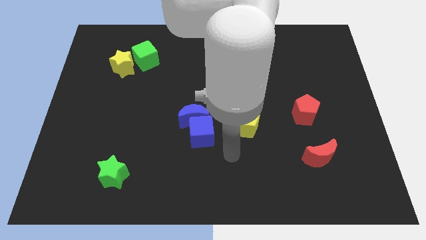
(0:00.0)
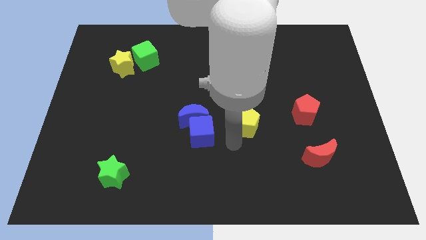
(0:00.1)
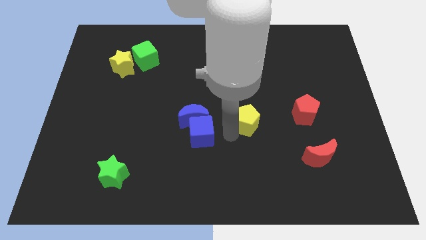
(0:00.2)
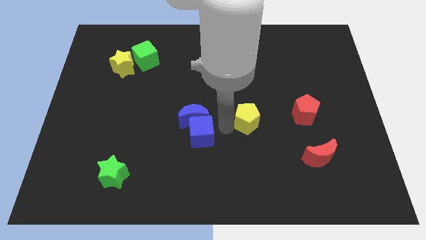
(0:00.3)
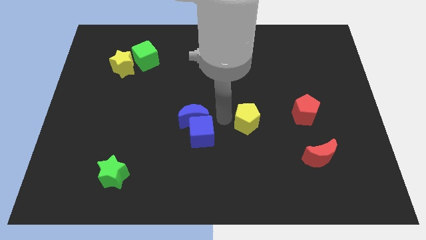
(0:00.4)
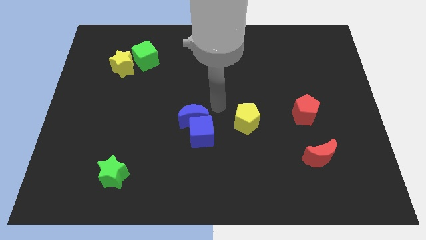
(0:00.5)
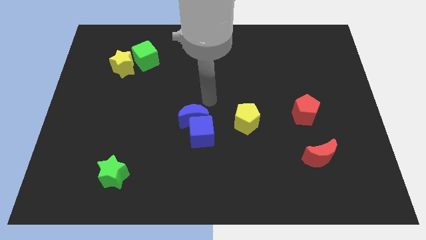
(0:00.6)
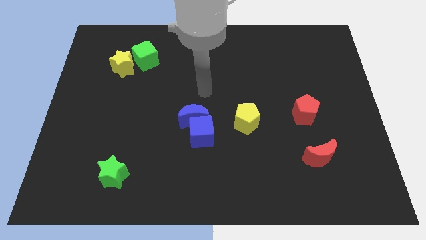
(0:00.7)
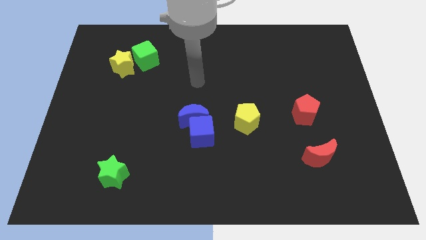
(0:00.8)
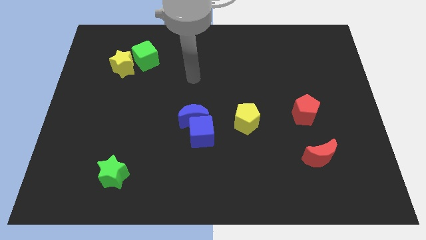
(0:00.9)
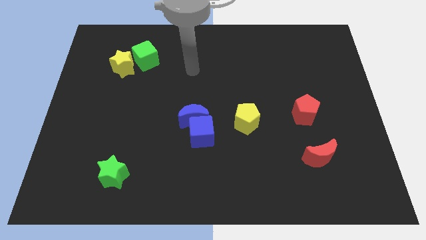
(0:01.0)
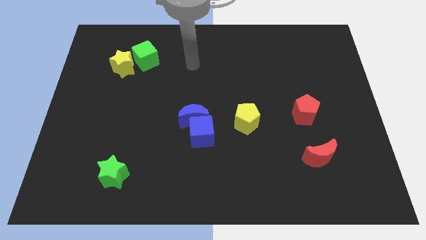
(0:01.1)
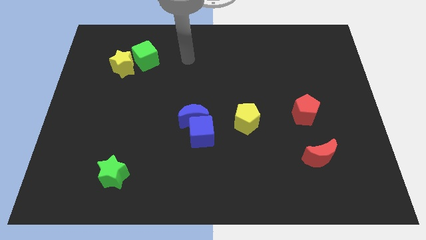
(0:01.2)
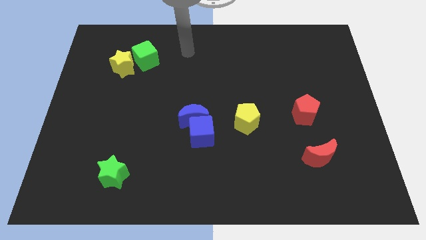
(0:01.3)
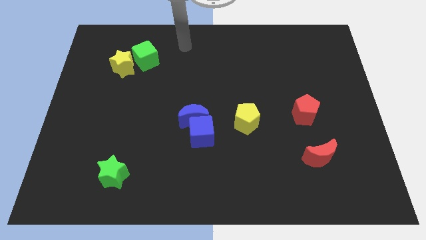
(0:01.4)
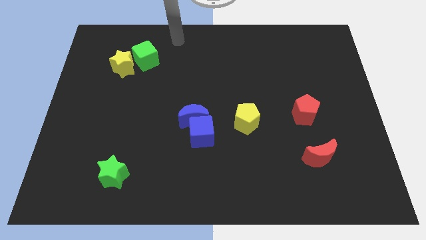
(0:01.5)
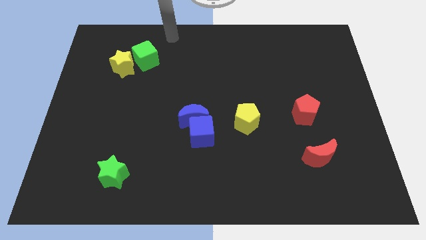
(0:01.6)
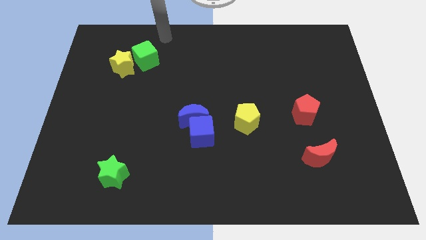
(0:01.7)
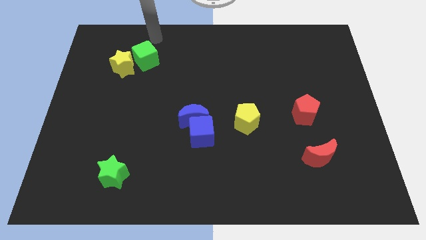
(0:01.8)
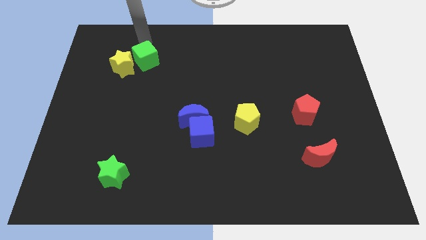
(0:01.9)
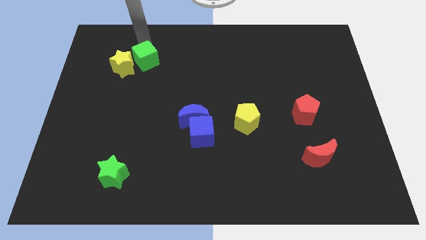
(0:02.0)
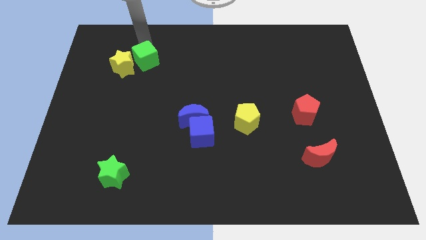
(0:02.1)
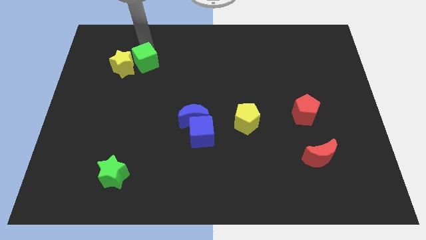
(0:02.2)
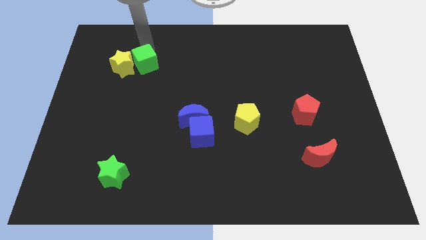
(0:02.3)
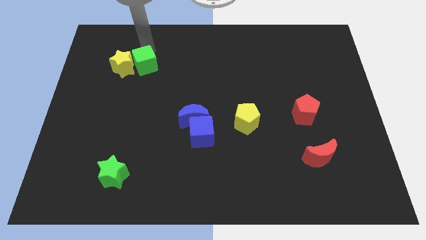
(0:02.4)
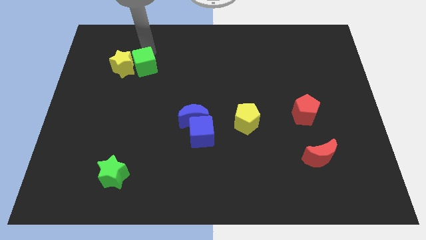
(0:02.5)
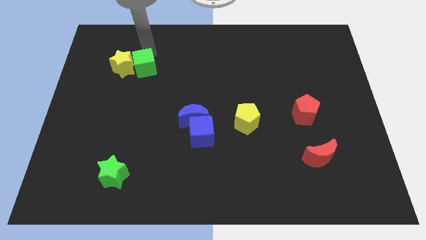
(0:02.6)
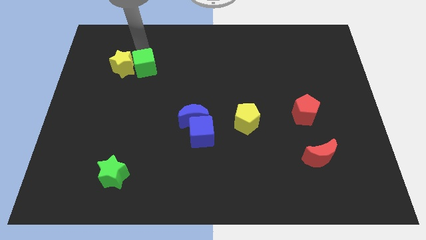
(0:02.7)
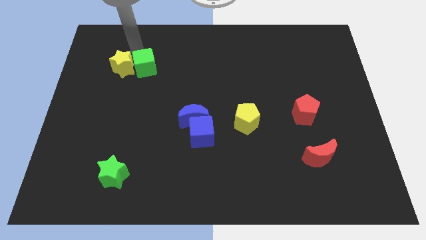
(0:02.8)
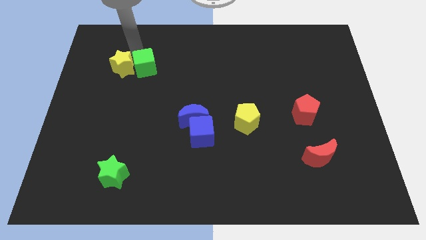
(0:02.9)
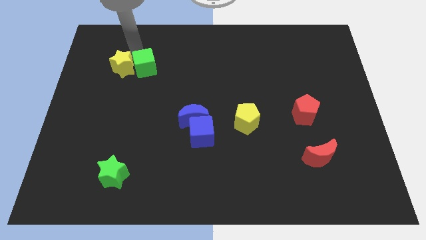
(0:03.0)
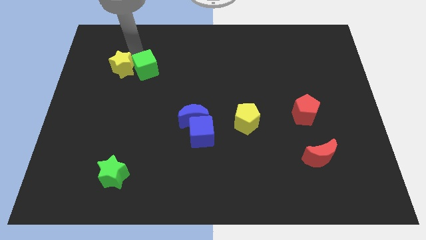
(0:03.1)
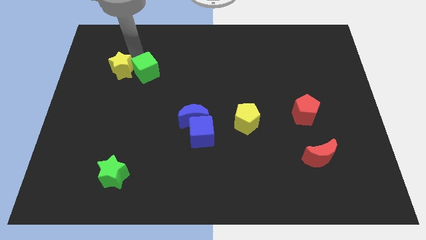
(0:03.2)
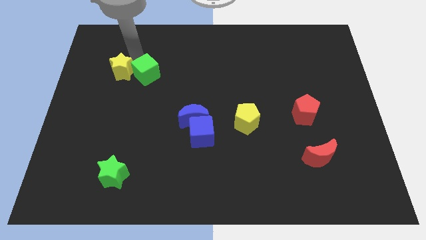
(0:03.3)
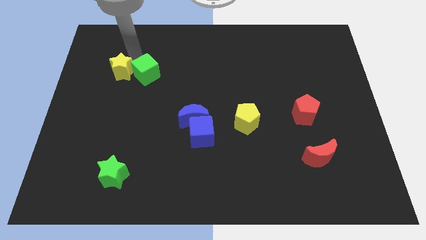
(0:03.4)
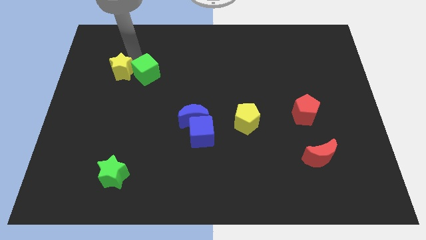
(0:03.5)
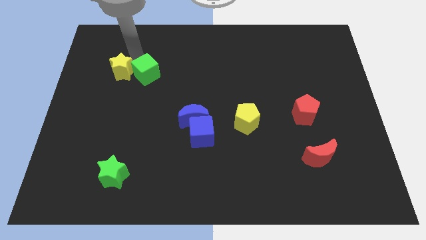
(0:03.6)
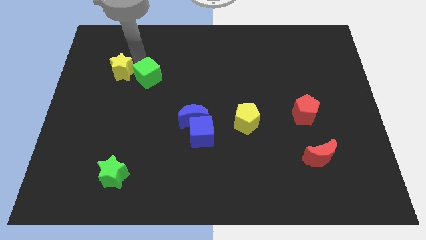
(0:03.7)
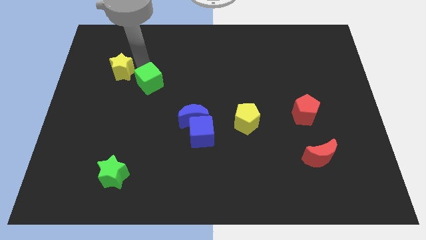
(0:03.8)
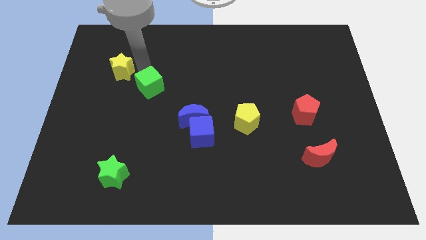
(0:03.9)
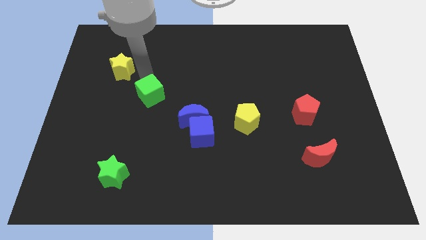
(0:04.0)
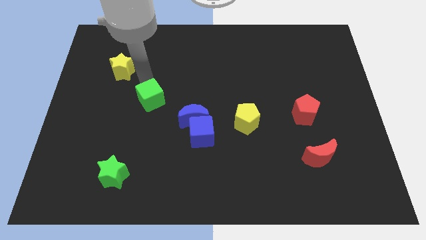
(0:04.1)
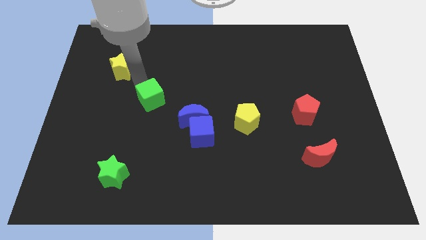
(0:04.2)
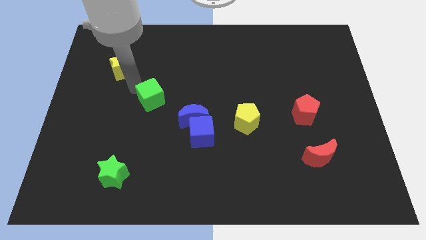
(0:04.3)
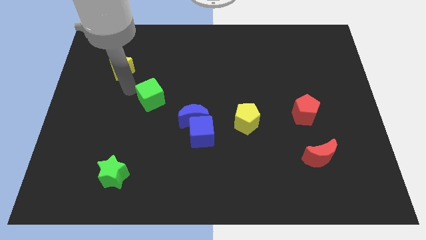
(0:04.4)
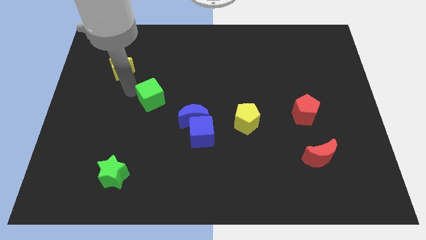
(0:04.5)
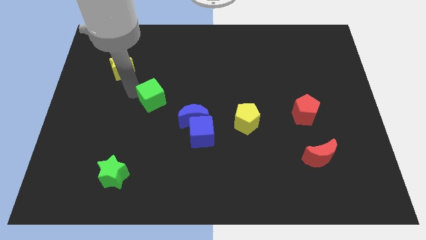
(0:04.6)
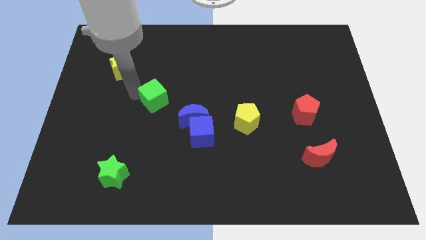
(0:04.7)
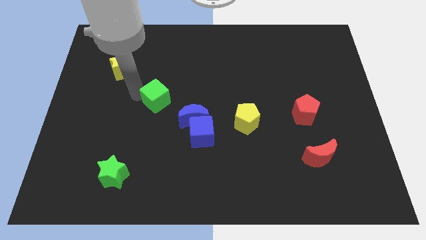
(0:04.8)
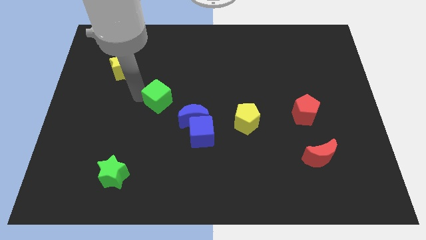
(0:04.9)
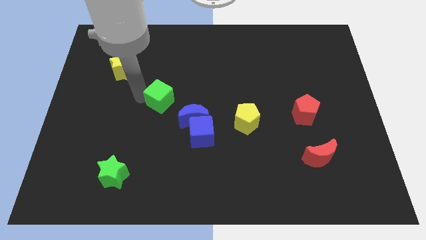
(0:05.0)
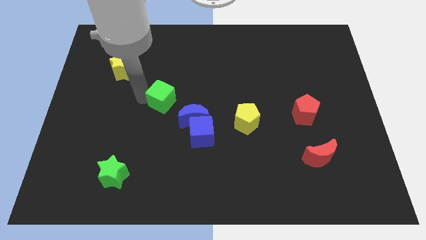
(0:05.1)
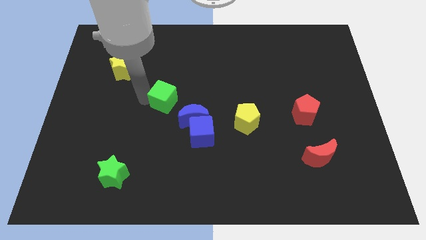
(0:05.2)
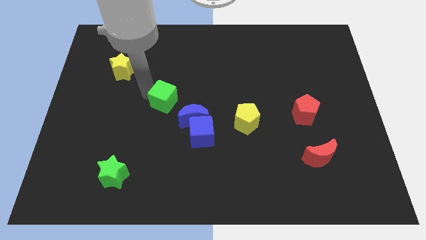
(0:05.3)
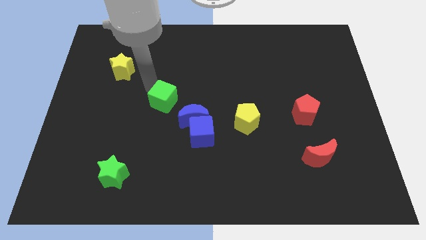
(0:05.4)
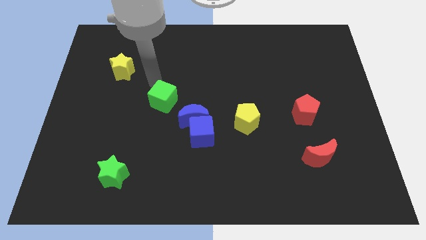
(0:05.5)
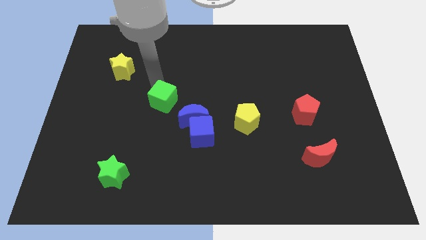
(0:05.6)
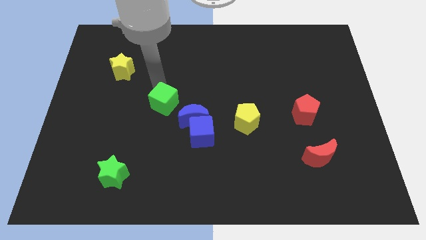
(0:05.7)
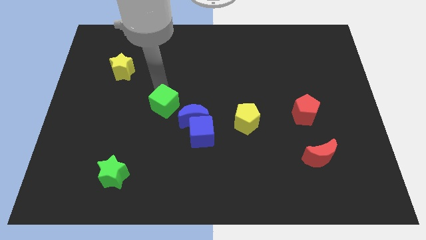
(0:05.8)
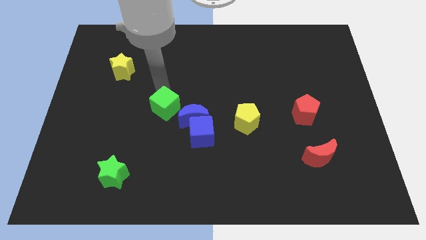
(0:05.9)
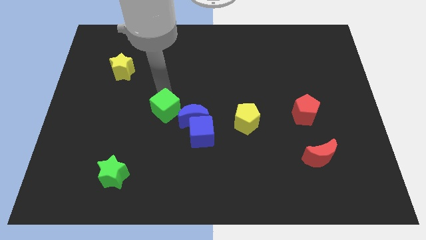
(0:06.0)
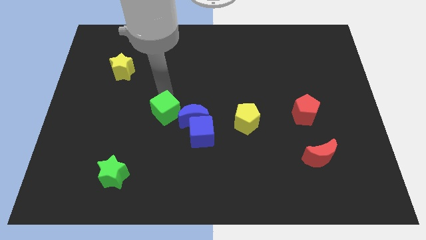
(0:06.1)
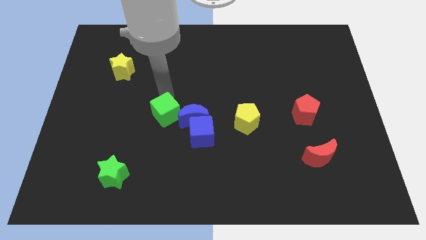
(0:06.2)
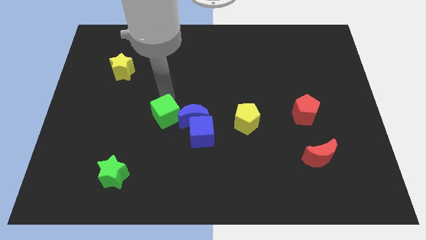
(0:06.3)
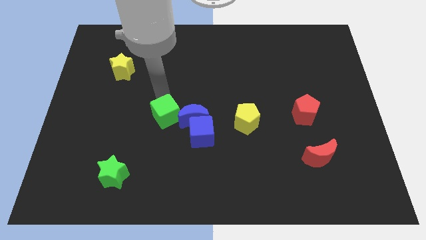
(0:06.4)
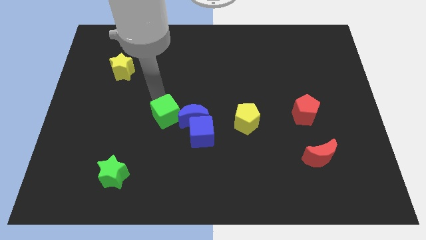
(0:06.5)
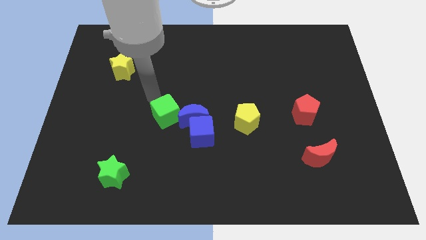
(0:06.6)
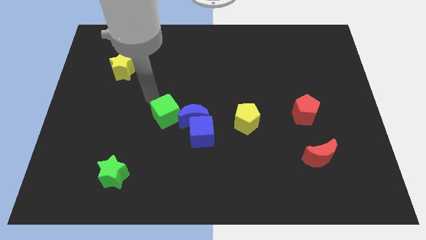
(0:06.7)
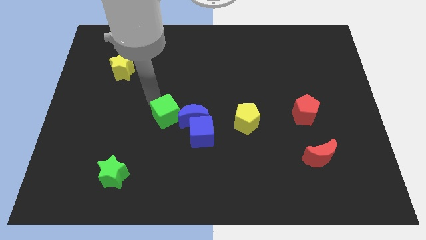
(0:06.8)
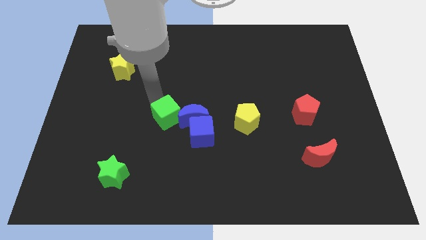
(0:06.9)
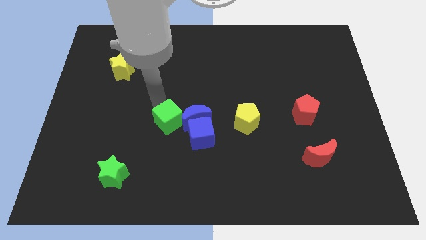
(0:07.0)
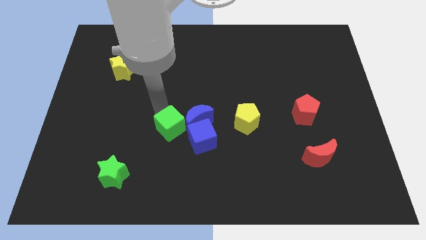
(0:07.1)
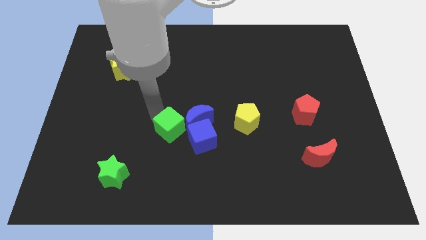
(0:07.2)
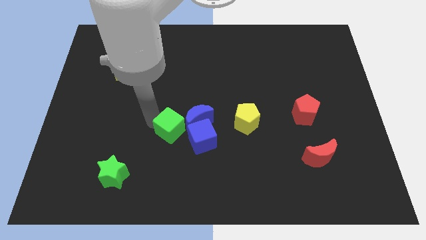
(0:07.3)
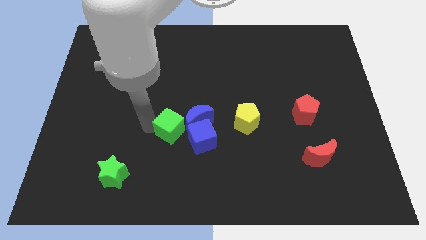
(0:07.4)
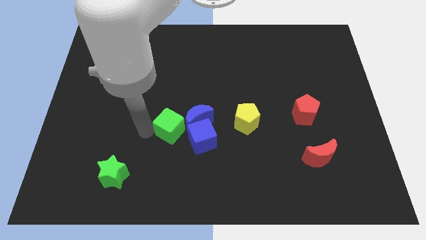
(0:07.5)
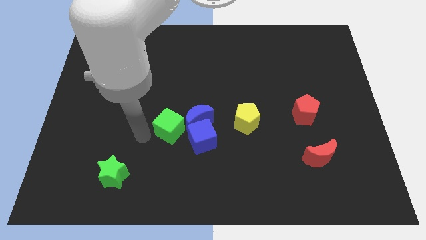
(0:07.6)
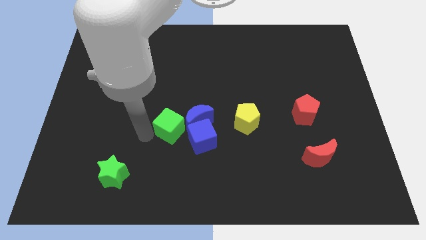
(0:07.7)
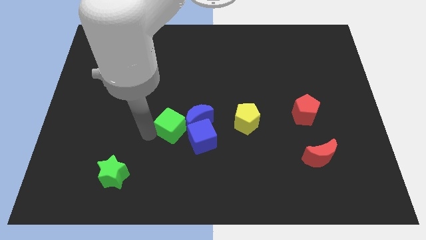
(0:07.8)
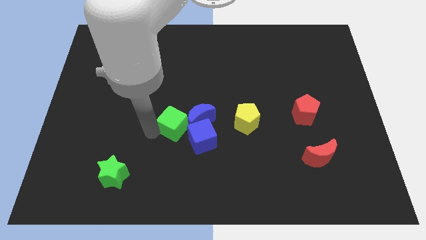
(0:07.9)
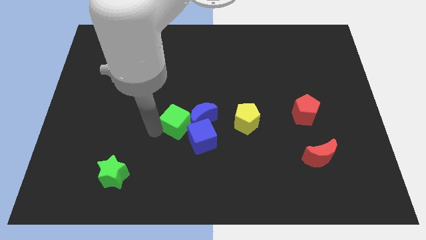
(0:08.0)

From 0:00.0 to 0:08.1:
push the green cube to the left side of the yellow pentagon
